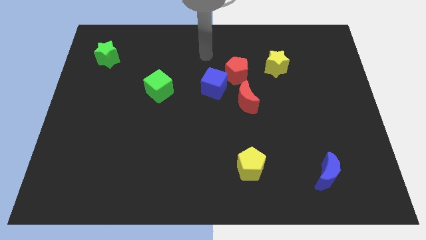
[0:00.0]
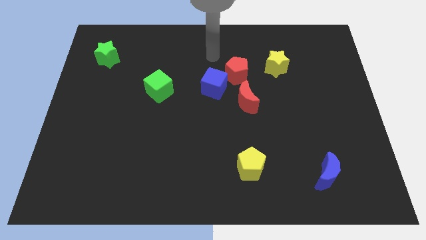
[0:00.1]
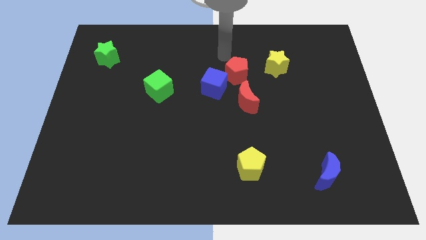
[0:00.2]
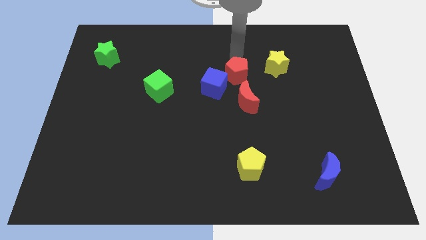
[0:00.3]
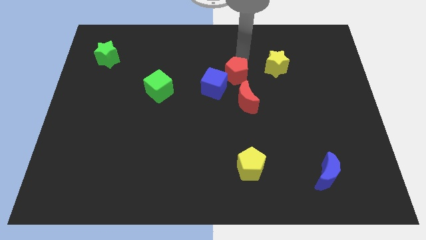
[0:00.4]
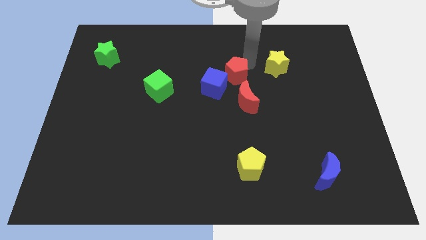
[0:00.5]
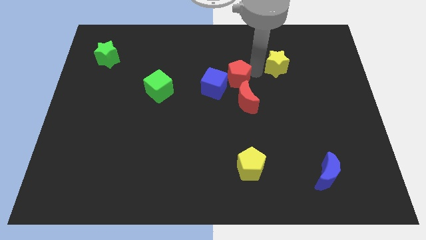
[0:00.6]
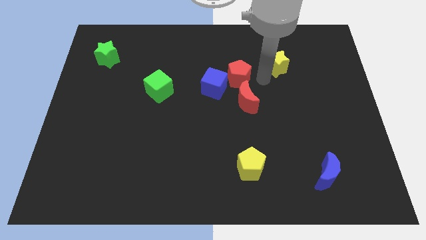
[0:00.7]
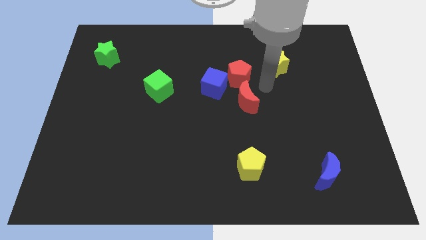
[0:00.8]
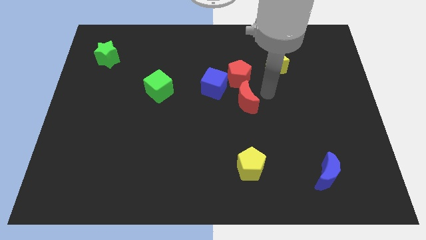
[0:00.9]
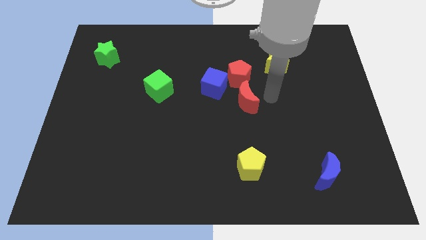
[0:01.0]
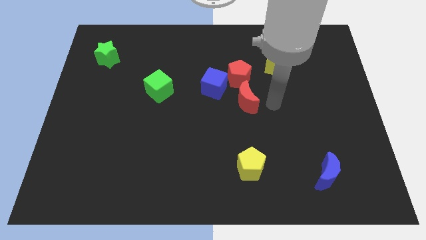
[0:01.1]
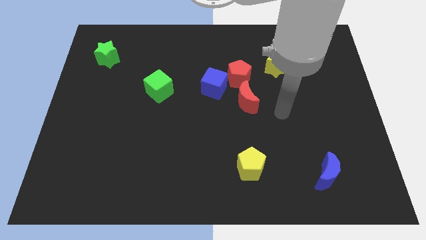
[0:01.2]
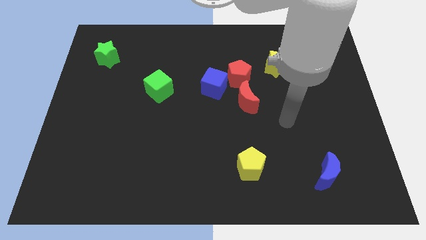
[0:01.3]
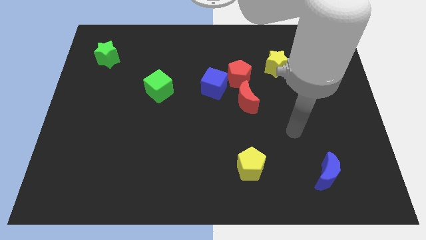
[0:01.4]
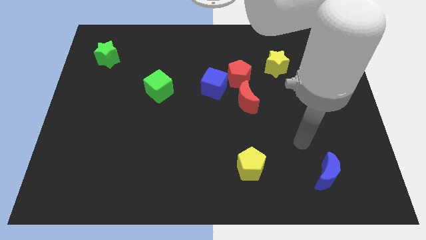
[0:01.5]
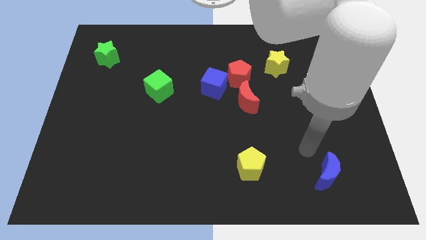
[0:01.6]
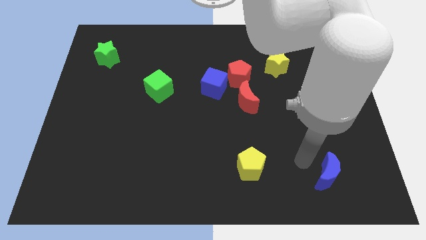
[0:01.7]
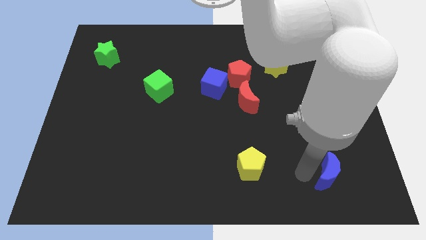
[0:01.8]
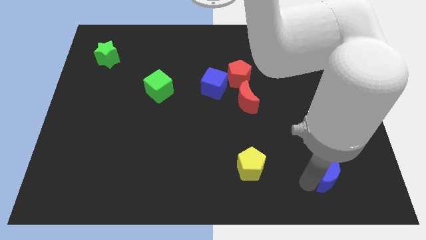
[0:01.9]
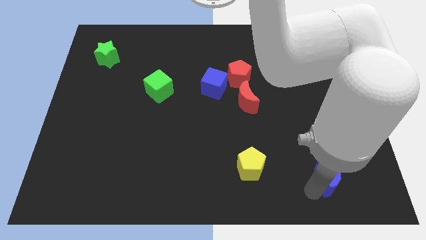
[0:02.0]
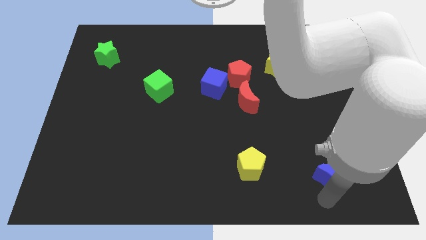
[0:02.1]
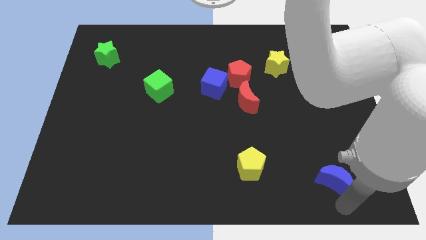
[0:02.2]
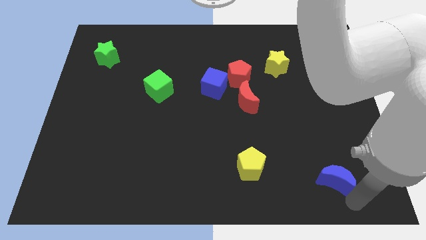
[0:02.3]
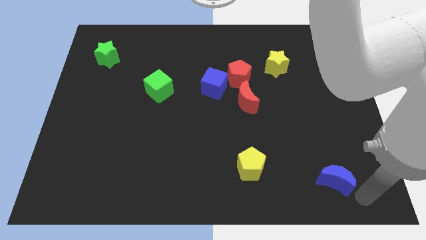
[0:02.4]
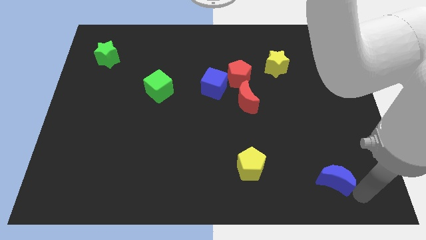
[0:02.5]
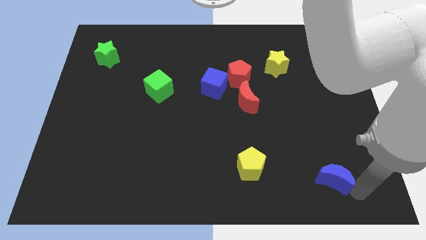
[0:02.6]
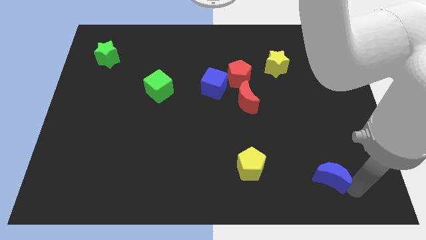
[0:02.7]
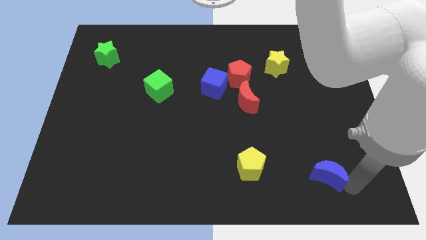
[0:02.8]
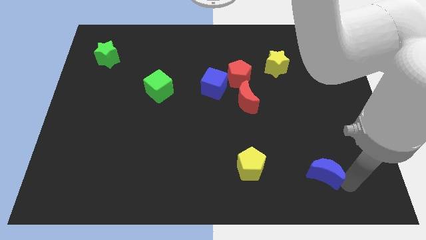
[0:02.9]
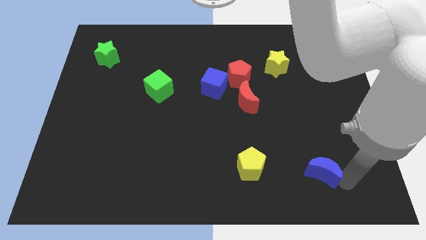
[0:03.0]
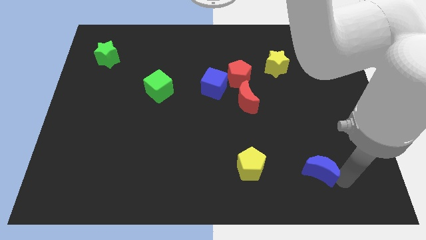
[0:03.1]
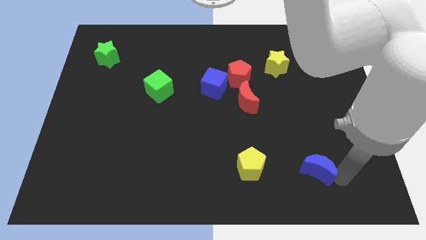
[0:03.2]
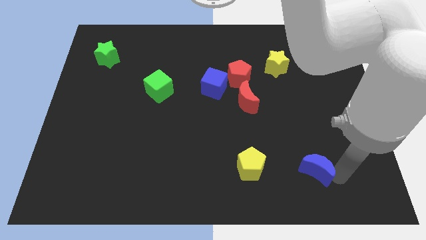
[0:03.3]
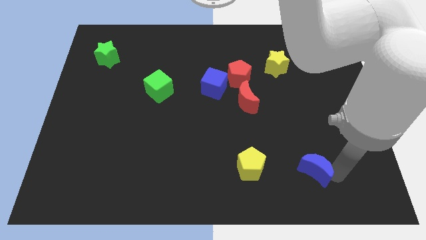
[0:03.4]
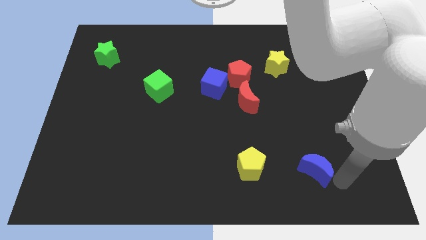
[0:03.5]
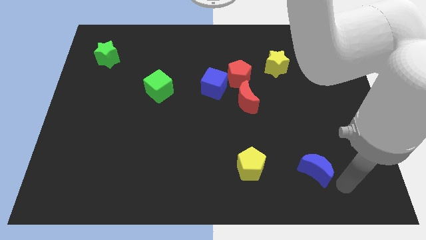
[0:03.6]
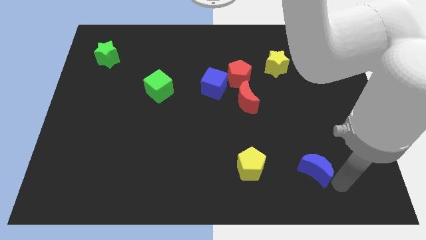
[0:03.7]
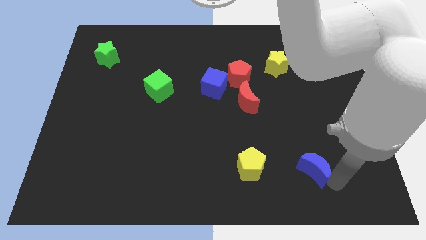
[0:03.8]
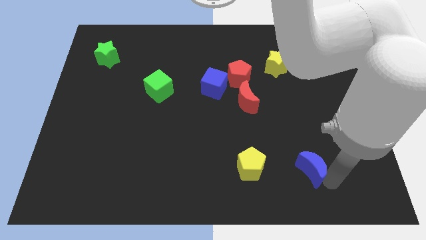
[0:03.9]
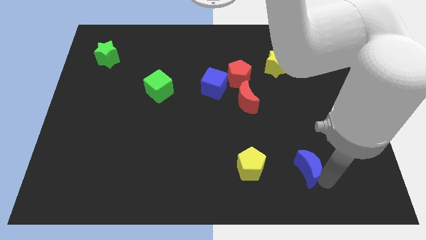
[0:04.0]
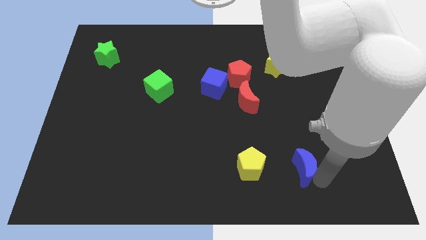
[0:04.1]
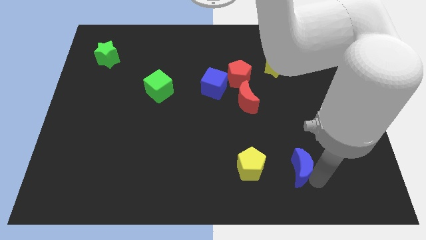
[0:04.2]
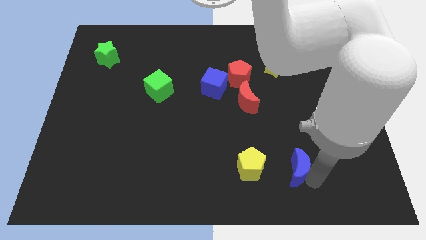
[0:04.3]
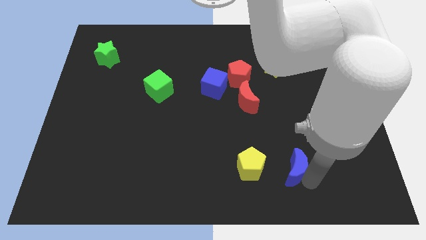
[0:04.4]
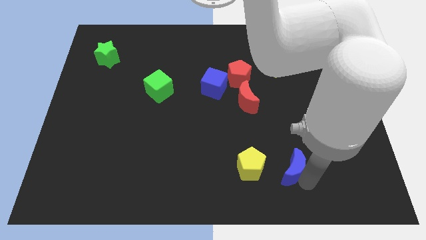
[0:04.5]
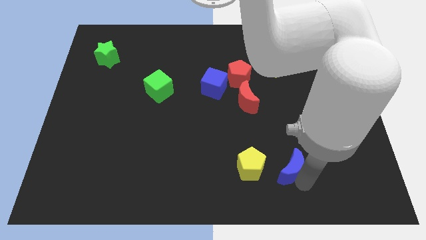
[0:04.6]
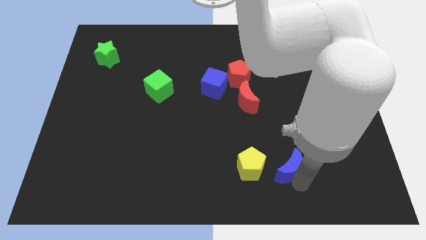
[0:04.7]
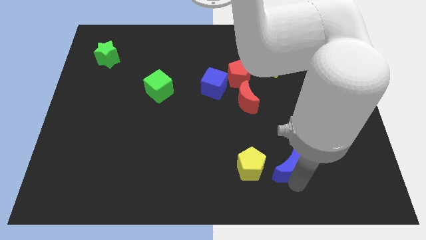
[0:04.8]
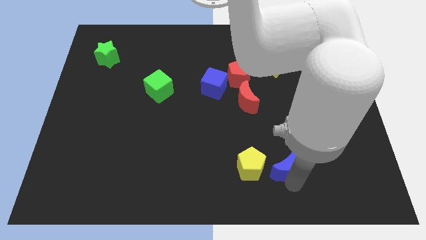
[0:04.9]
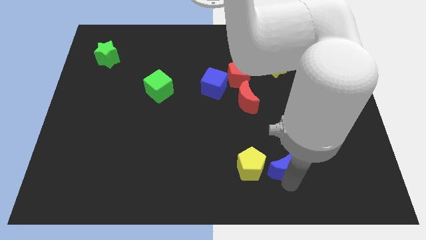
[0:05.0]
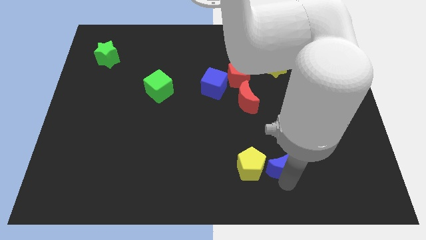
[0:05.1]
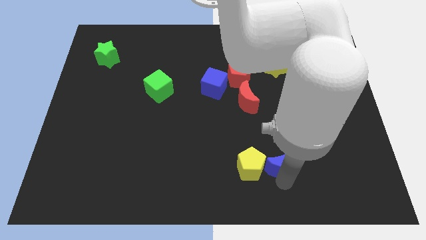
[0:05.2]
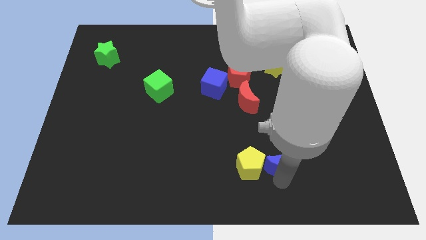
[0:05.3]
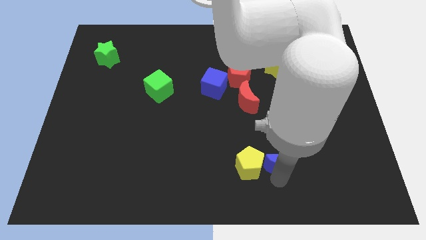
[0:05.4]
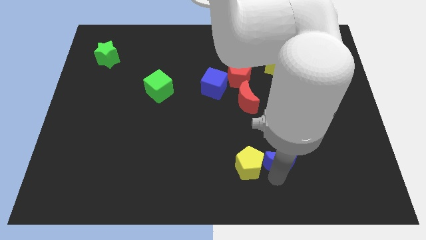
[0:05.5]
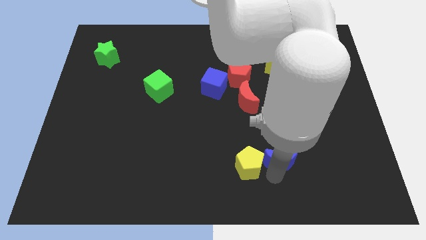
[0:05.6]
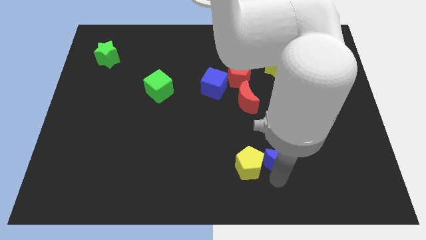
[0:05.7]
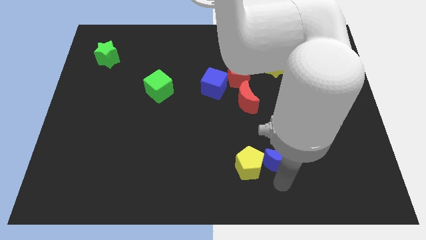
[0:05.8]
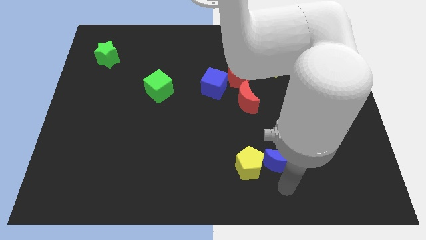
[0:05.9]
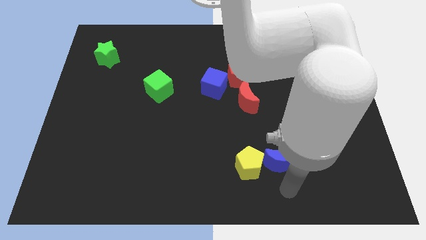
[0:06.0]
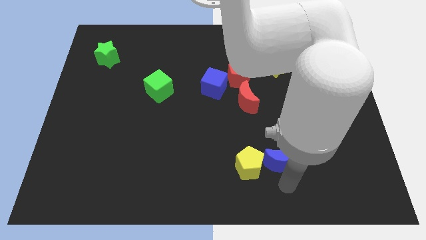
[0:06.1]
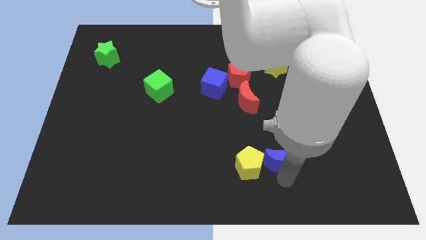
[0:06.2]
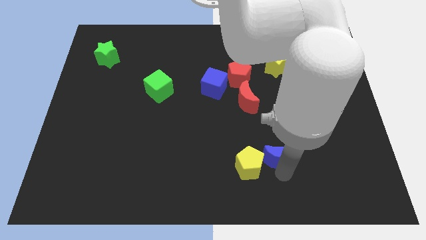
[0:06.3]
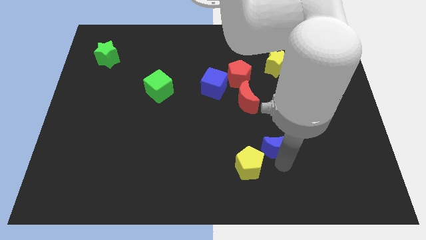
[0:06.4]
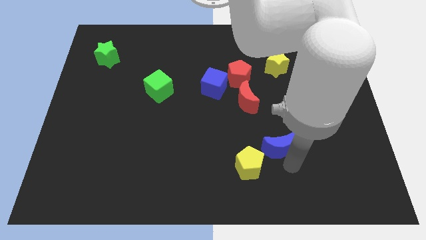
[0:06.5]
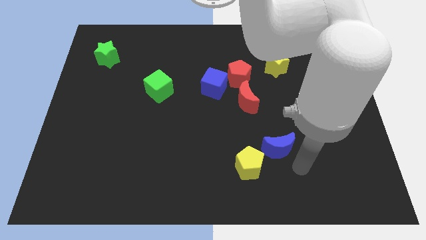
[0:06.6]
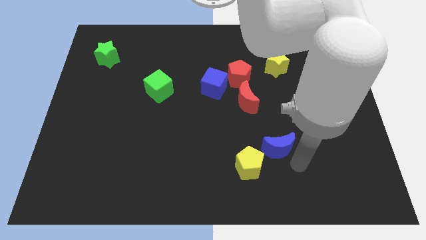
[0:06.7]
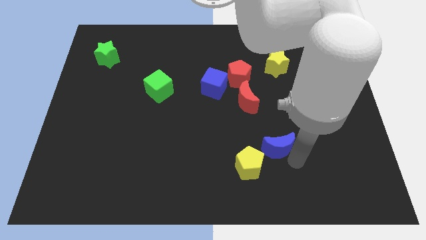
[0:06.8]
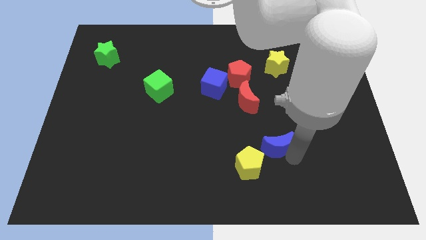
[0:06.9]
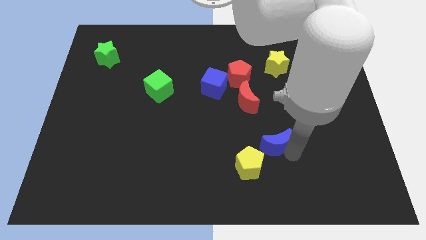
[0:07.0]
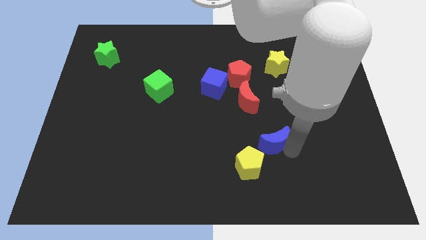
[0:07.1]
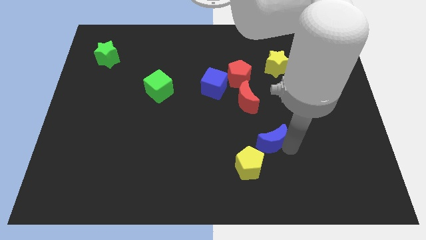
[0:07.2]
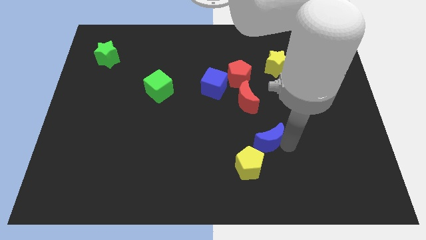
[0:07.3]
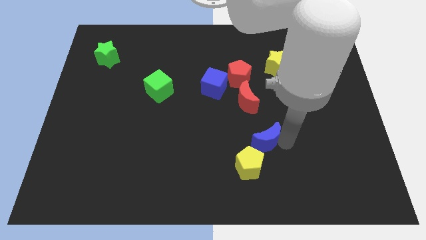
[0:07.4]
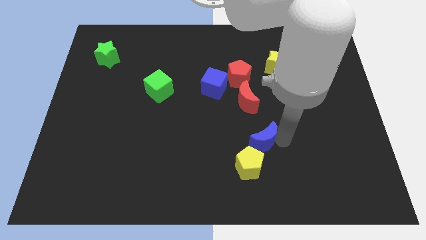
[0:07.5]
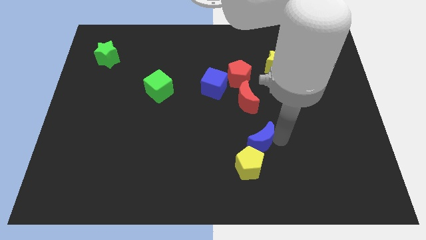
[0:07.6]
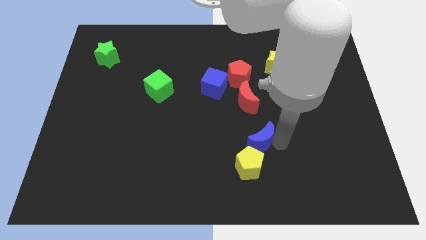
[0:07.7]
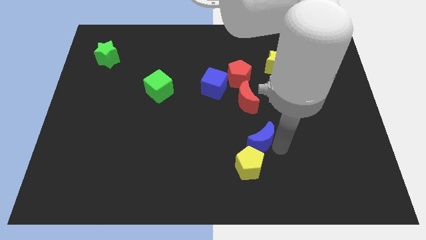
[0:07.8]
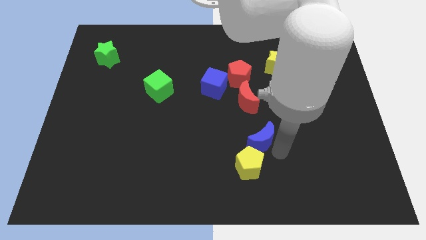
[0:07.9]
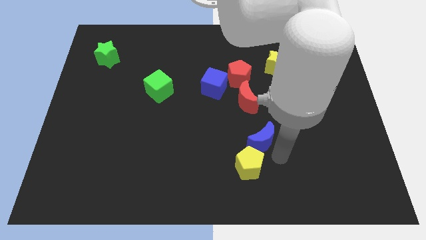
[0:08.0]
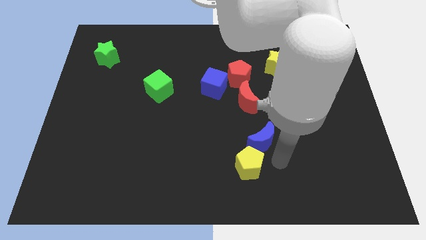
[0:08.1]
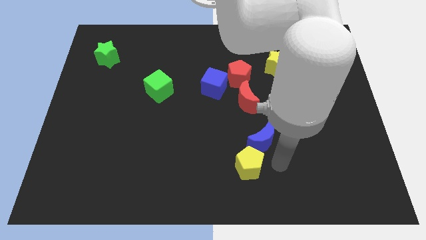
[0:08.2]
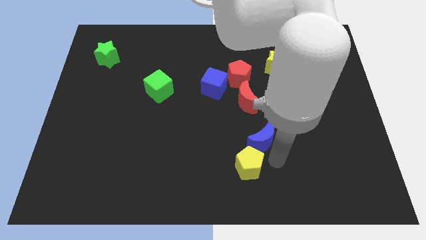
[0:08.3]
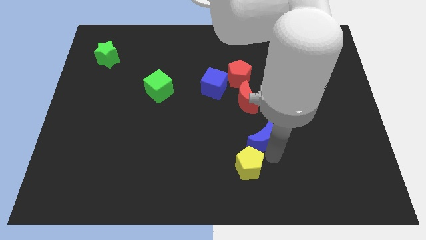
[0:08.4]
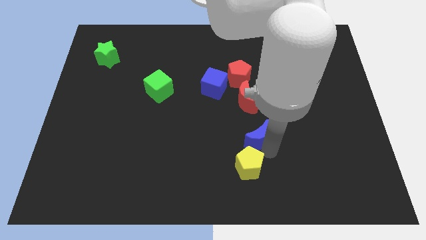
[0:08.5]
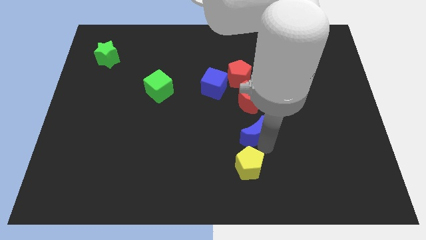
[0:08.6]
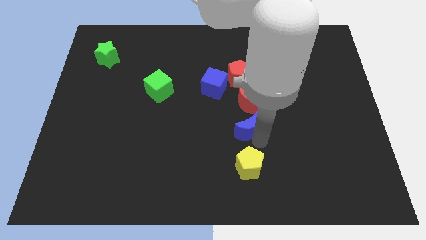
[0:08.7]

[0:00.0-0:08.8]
push the blue moon below the red pentagon

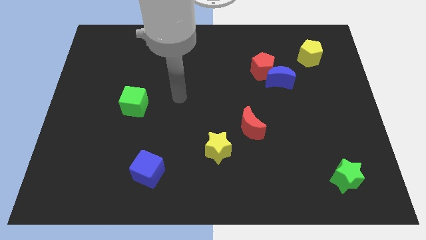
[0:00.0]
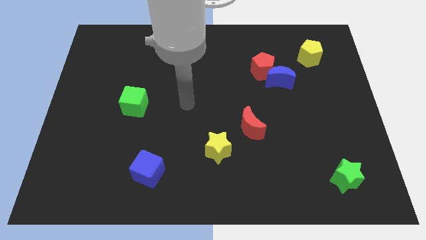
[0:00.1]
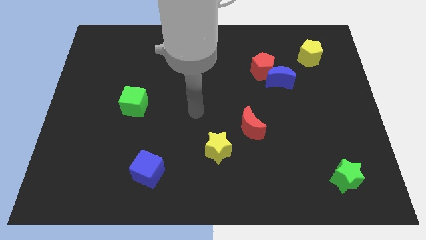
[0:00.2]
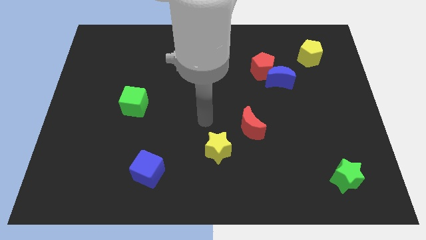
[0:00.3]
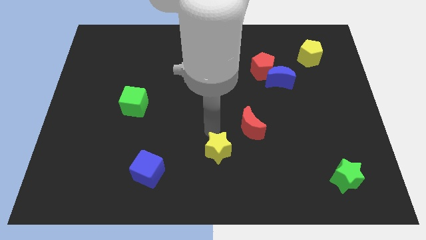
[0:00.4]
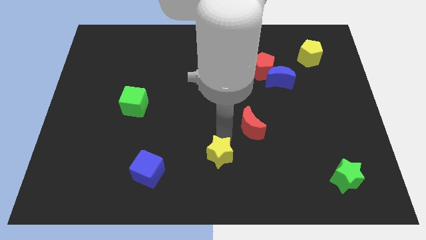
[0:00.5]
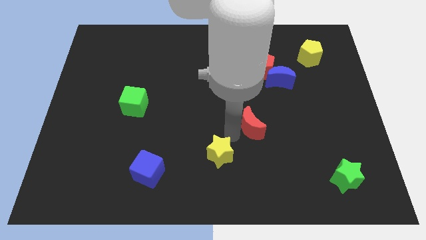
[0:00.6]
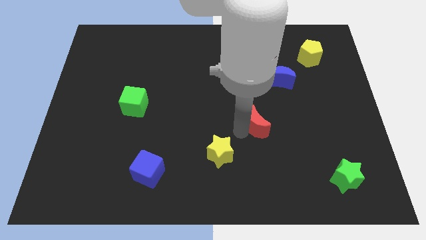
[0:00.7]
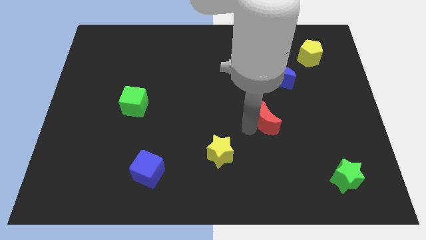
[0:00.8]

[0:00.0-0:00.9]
move the red moon to the bottom of the blue moon
